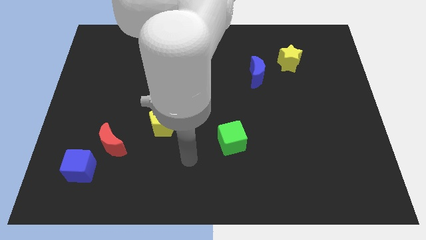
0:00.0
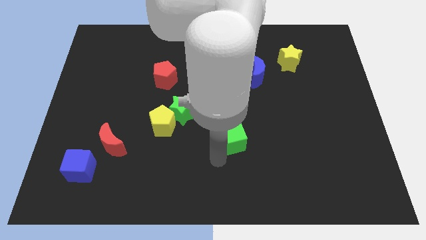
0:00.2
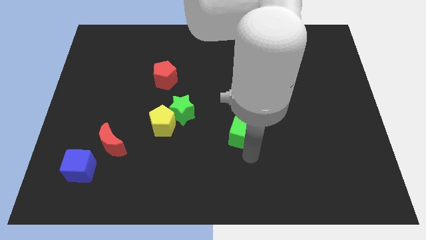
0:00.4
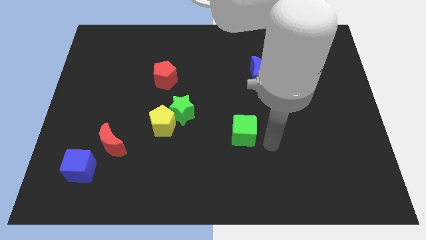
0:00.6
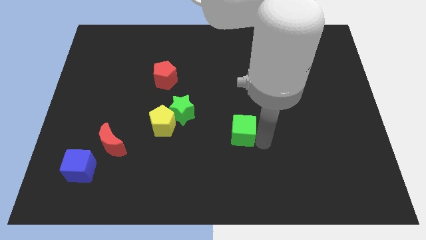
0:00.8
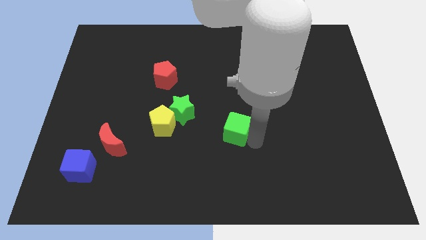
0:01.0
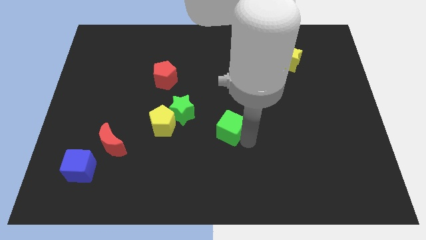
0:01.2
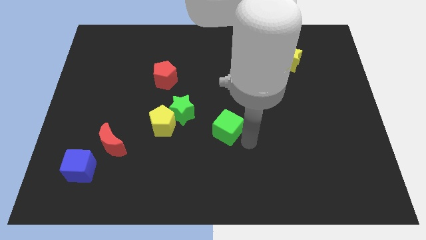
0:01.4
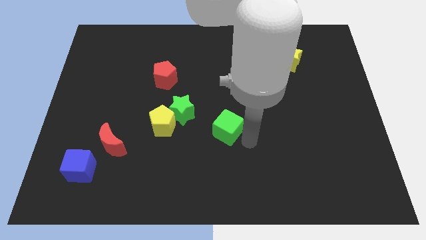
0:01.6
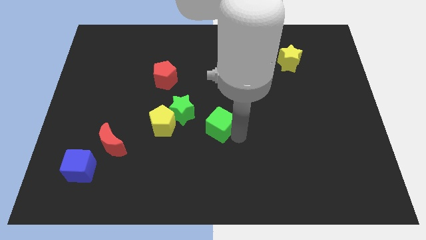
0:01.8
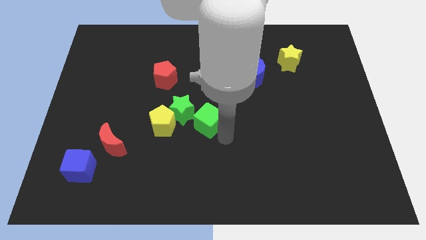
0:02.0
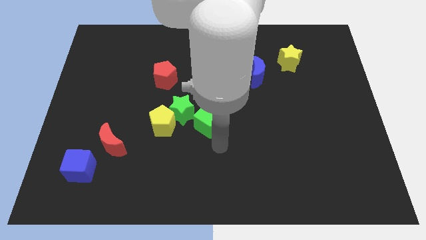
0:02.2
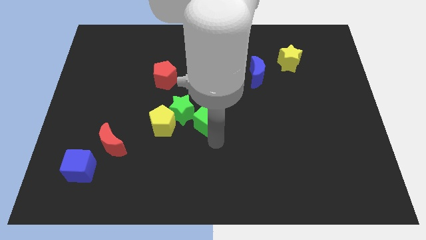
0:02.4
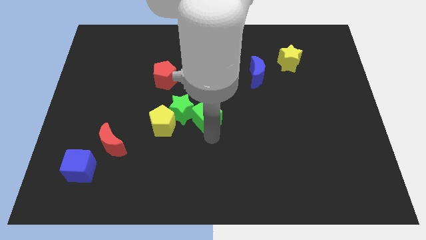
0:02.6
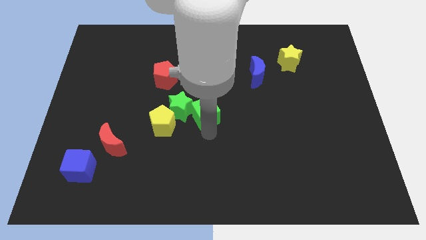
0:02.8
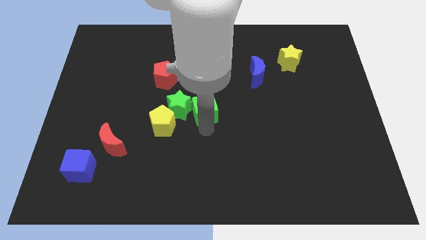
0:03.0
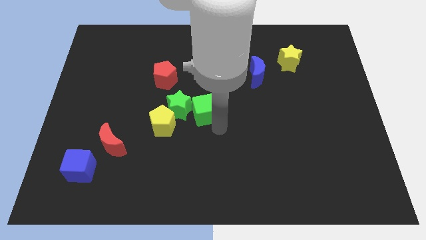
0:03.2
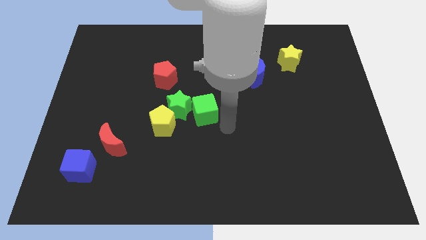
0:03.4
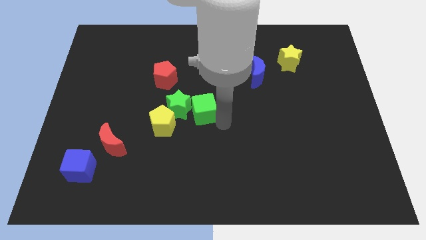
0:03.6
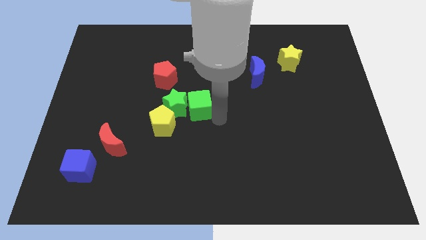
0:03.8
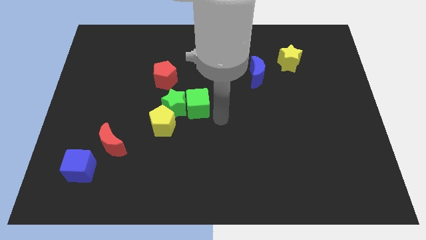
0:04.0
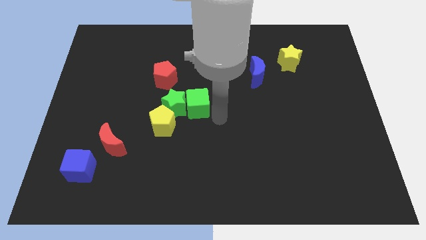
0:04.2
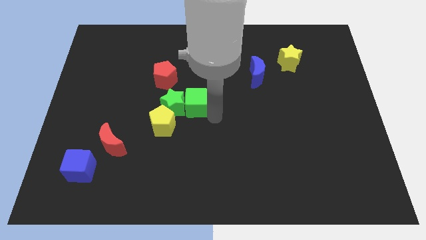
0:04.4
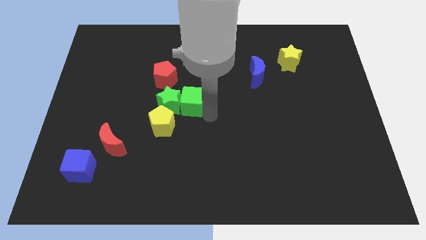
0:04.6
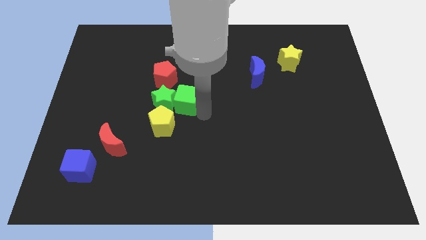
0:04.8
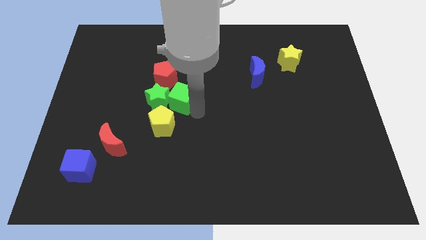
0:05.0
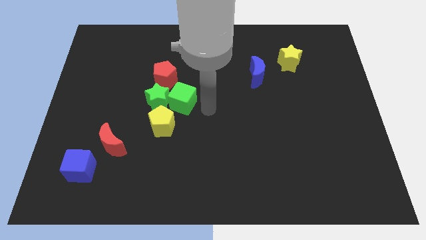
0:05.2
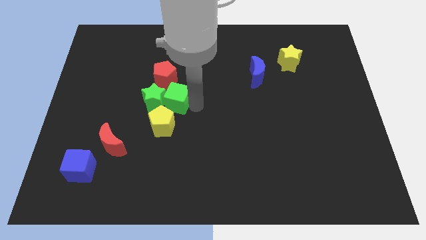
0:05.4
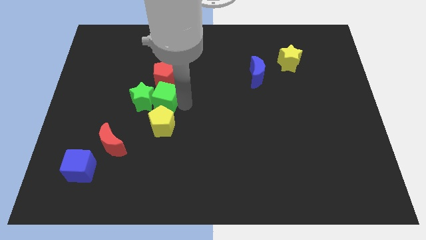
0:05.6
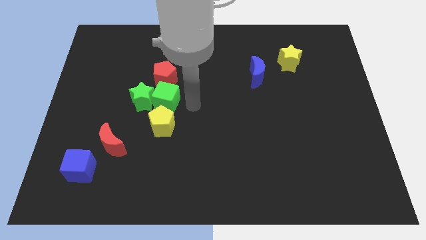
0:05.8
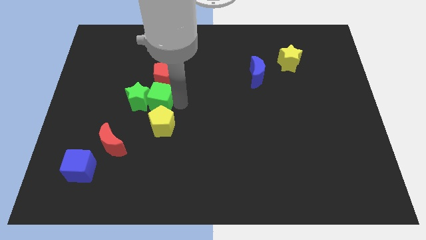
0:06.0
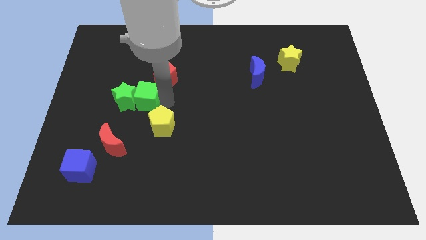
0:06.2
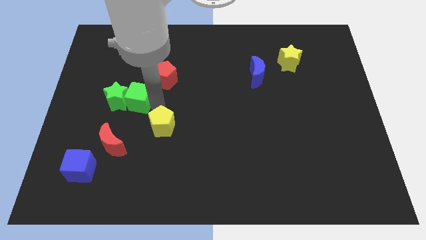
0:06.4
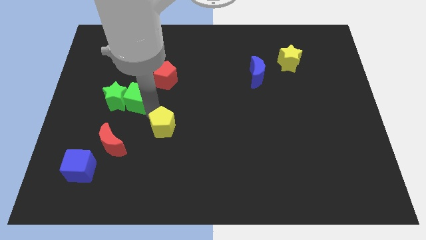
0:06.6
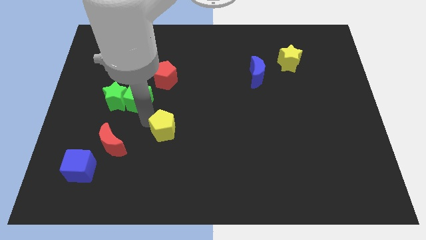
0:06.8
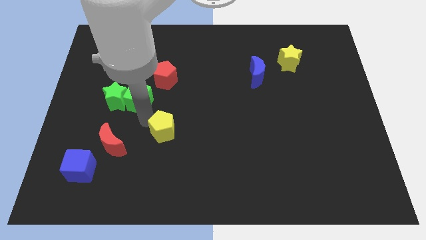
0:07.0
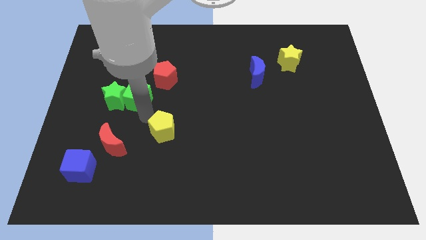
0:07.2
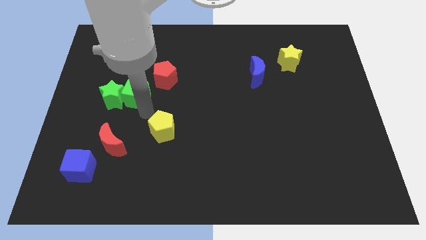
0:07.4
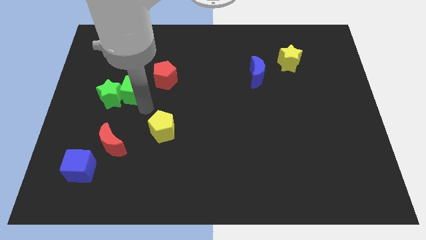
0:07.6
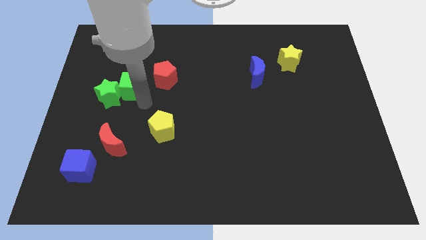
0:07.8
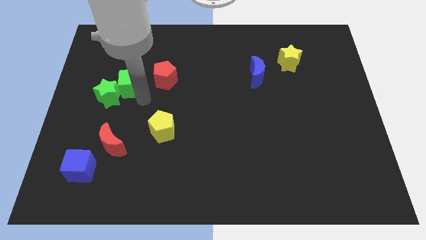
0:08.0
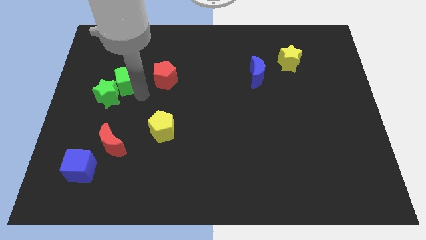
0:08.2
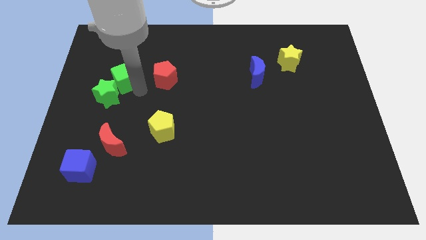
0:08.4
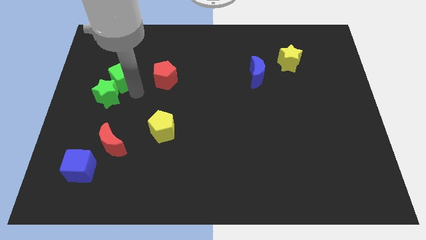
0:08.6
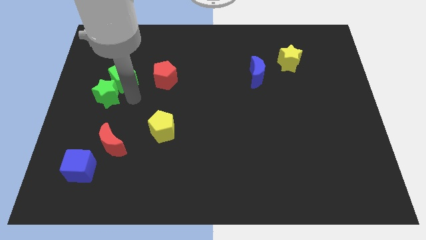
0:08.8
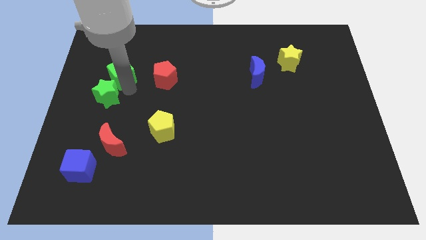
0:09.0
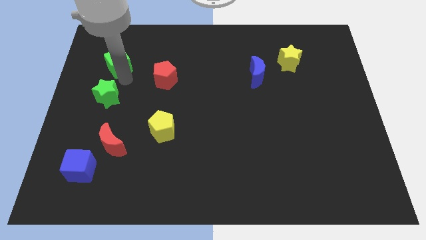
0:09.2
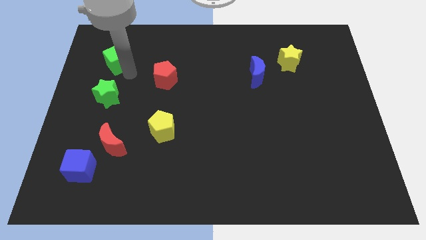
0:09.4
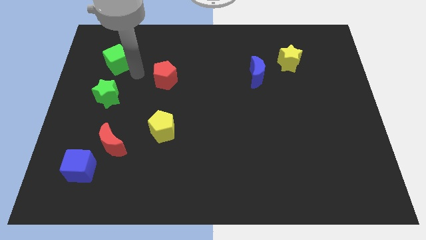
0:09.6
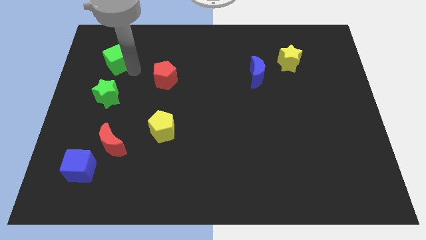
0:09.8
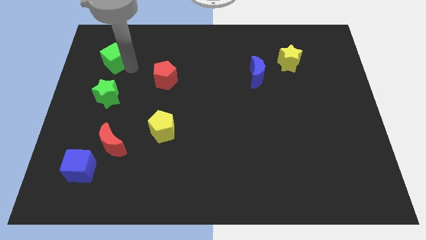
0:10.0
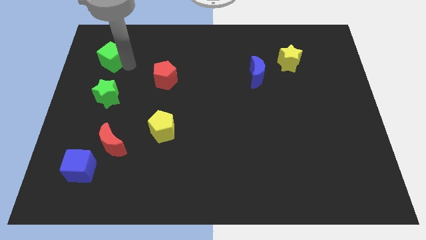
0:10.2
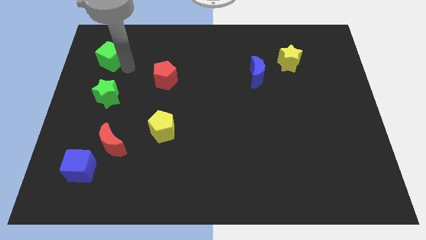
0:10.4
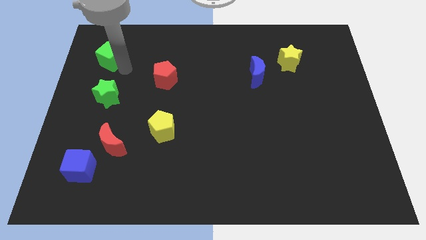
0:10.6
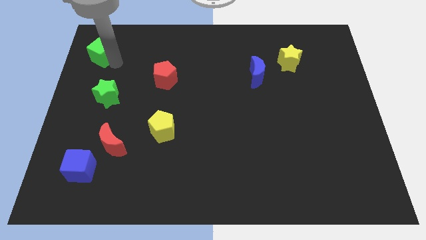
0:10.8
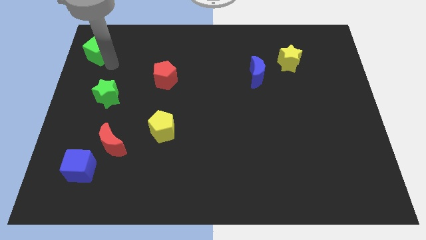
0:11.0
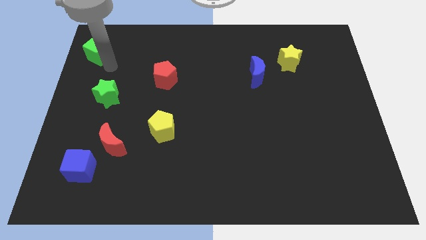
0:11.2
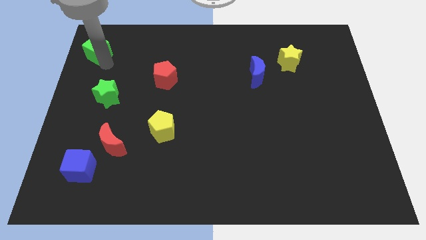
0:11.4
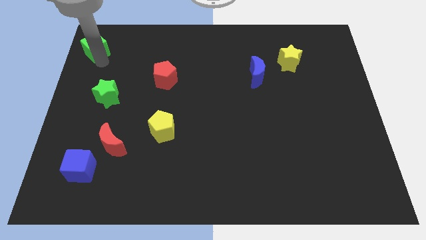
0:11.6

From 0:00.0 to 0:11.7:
push the green cube to the top left

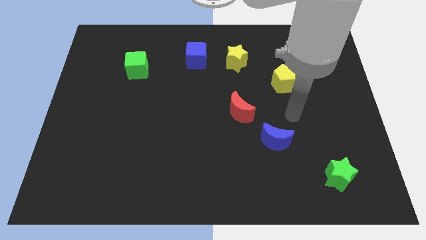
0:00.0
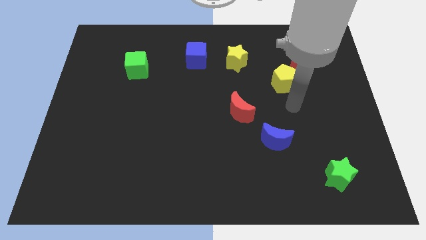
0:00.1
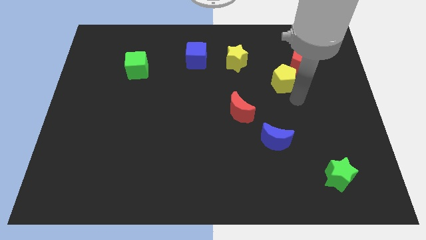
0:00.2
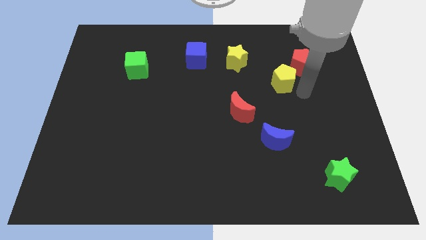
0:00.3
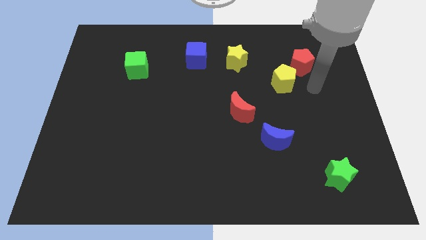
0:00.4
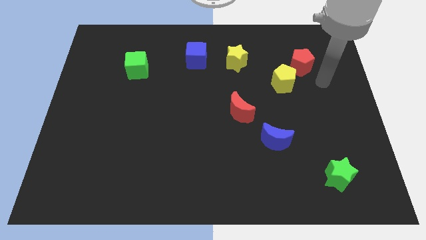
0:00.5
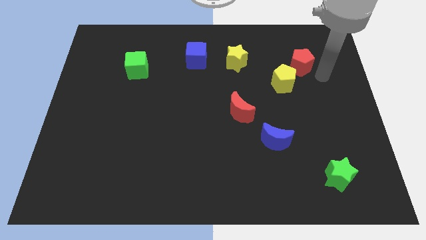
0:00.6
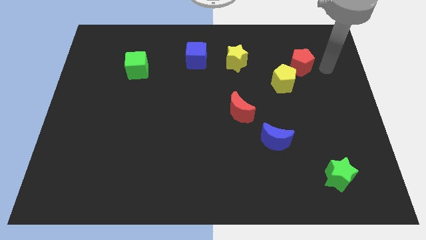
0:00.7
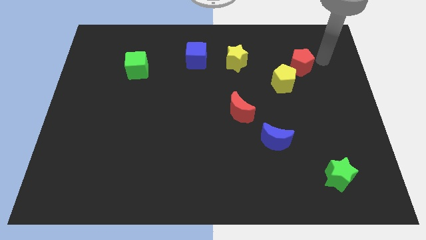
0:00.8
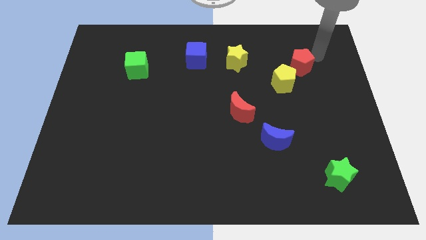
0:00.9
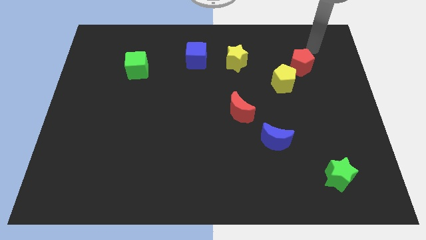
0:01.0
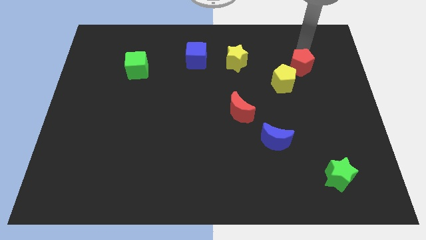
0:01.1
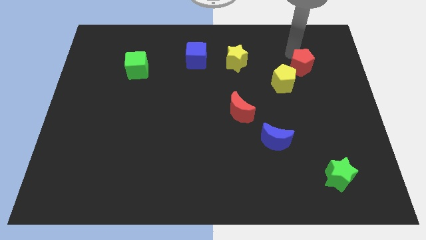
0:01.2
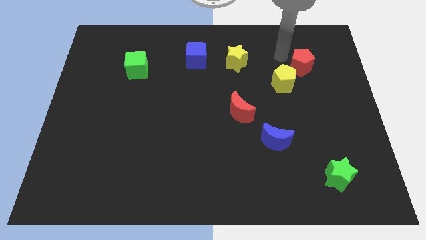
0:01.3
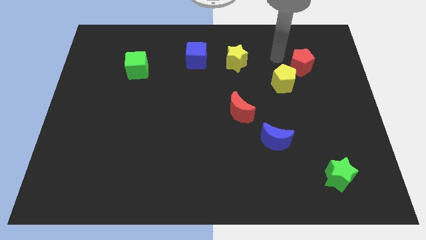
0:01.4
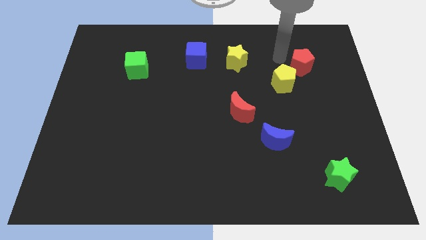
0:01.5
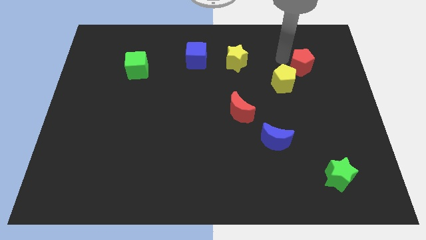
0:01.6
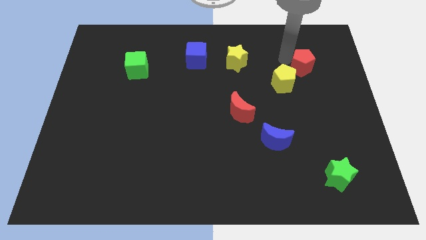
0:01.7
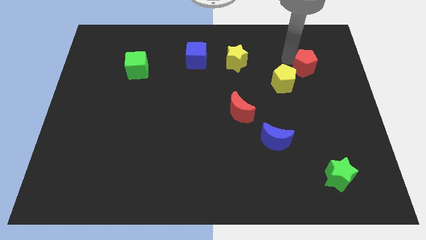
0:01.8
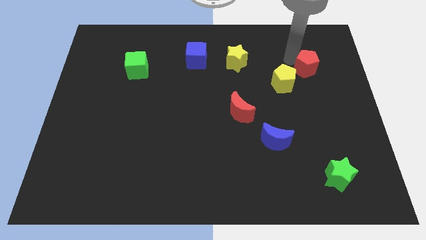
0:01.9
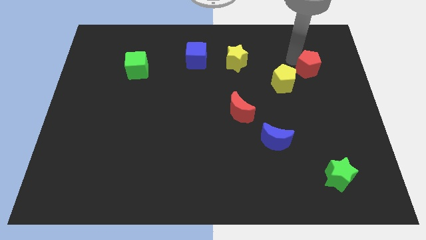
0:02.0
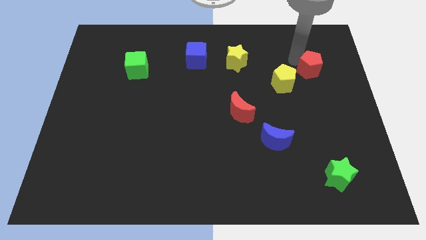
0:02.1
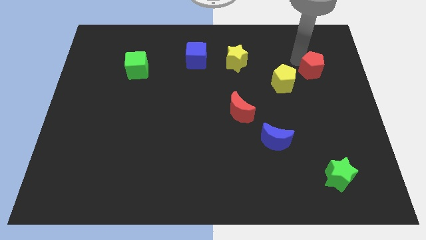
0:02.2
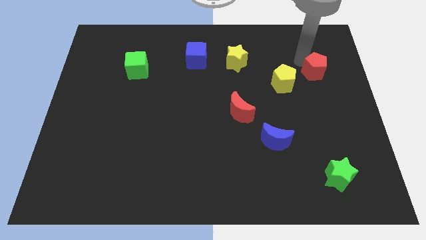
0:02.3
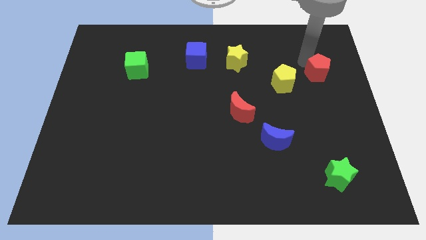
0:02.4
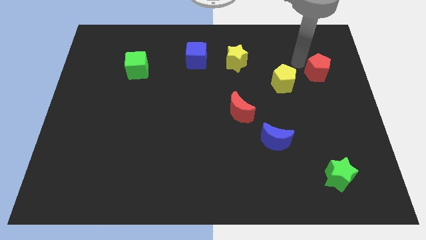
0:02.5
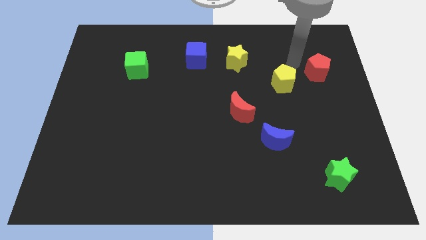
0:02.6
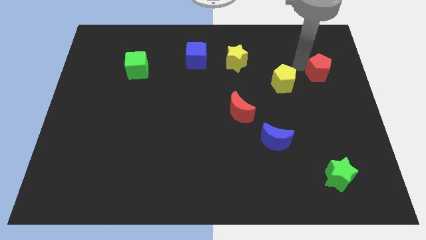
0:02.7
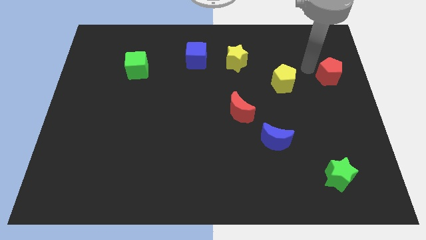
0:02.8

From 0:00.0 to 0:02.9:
slide the red pentagon to the center right
